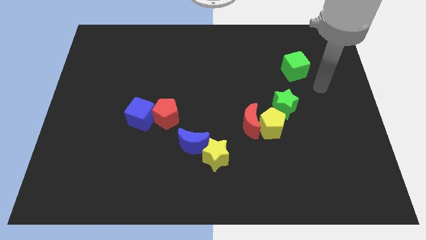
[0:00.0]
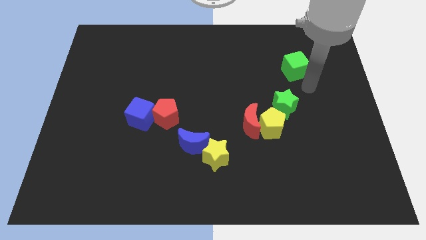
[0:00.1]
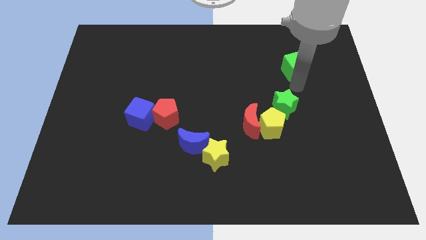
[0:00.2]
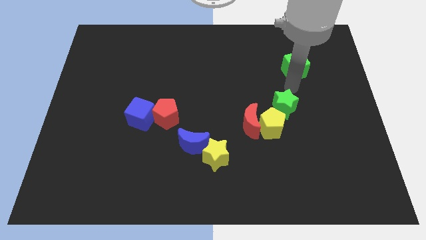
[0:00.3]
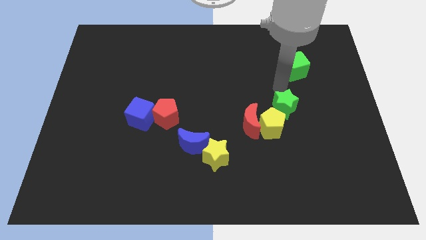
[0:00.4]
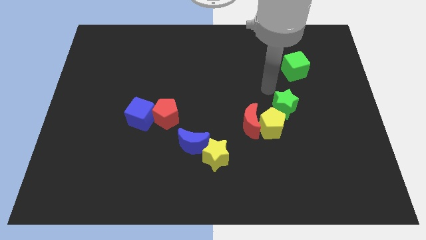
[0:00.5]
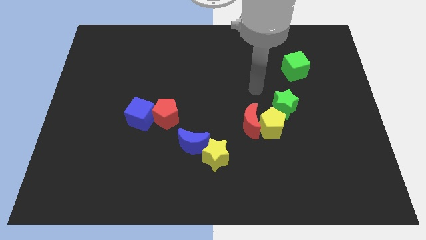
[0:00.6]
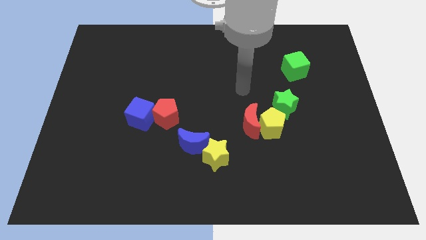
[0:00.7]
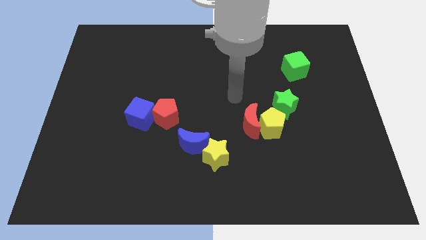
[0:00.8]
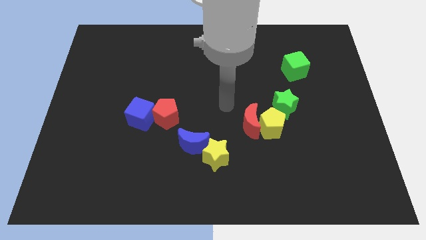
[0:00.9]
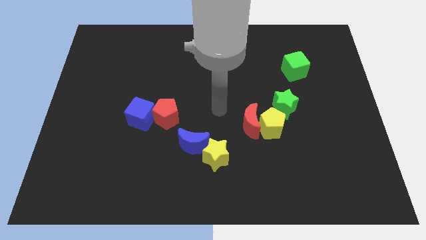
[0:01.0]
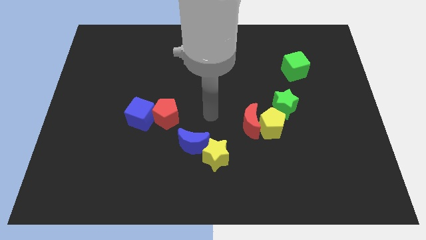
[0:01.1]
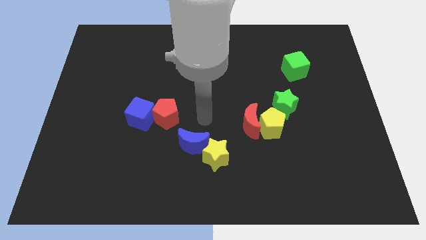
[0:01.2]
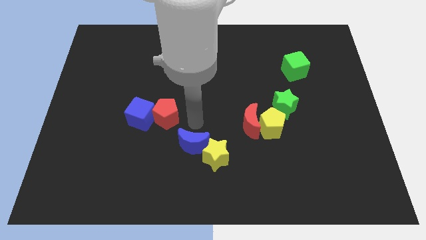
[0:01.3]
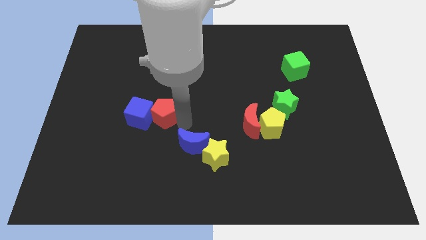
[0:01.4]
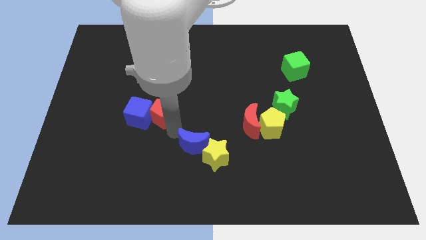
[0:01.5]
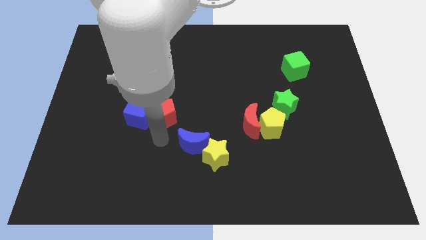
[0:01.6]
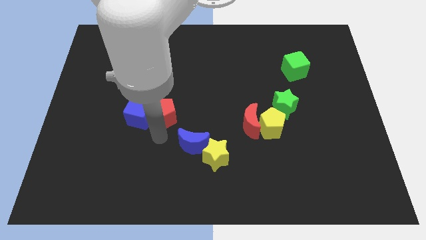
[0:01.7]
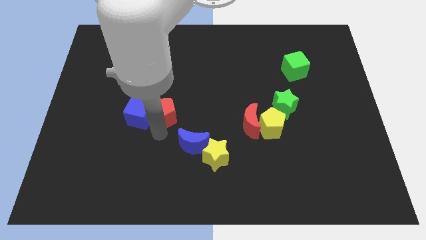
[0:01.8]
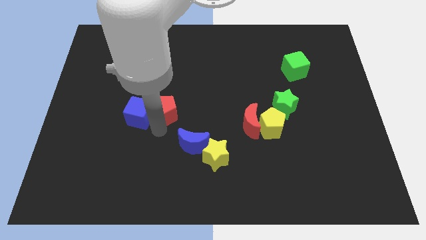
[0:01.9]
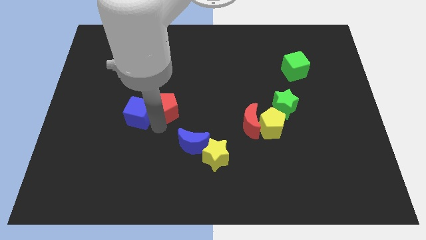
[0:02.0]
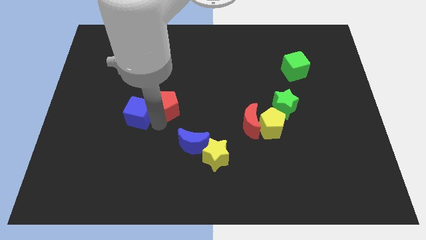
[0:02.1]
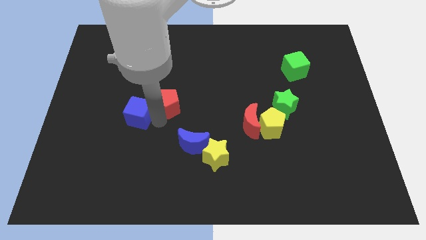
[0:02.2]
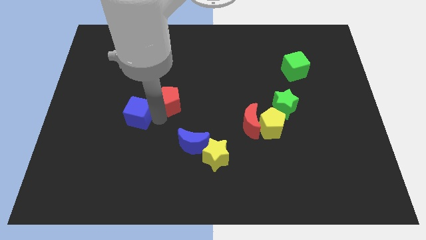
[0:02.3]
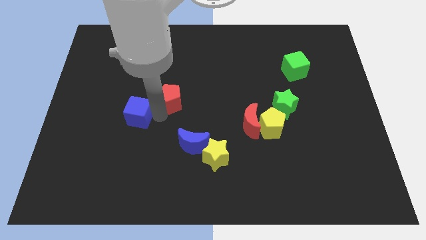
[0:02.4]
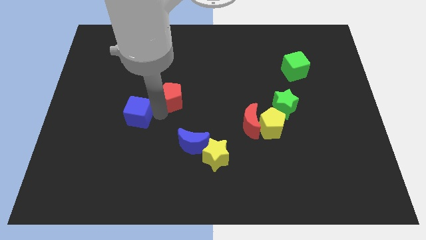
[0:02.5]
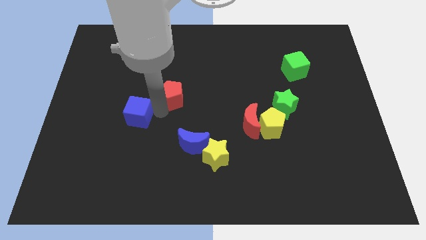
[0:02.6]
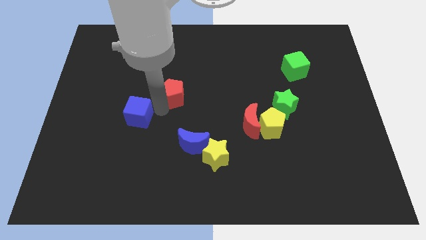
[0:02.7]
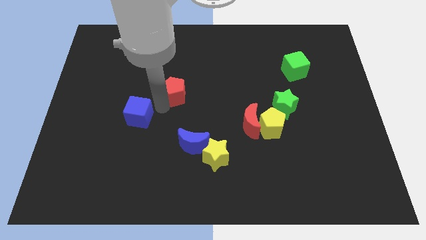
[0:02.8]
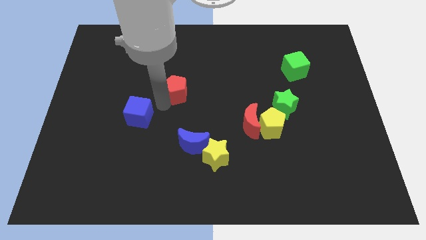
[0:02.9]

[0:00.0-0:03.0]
slightly slide the red pentagon upwards

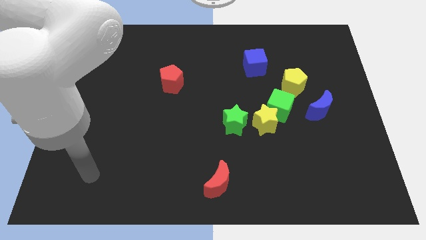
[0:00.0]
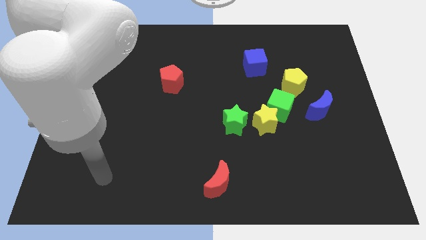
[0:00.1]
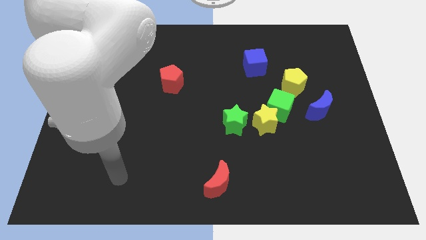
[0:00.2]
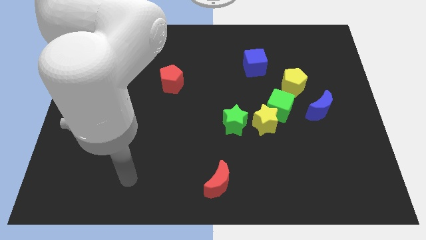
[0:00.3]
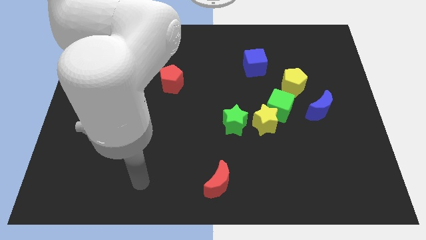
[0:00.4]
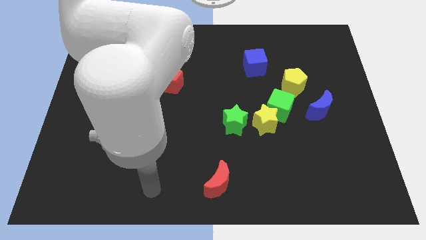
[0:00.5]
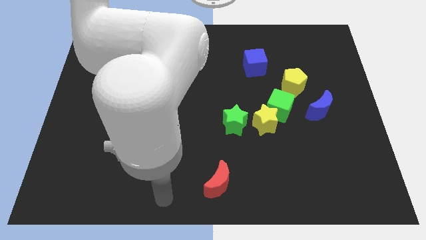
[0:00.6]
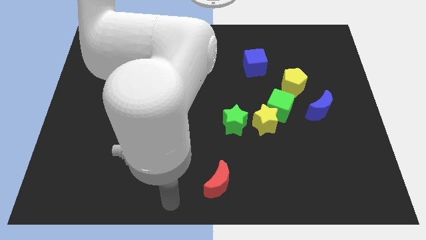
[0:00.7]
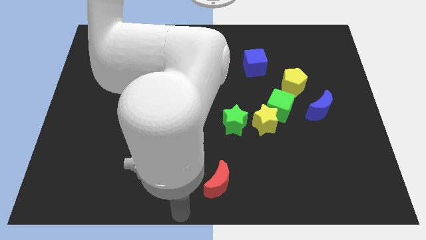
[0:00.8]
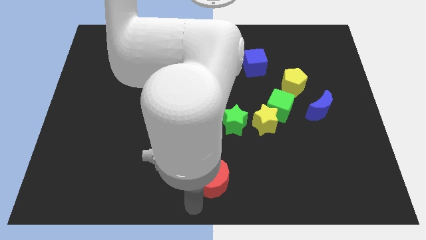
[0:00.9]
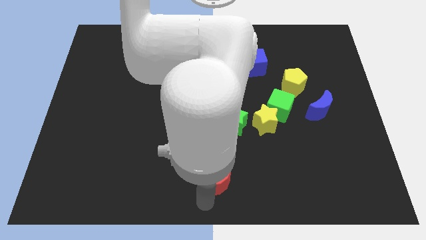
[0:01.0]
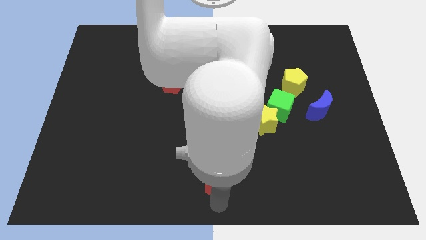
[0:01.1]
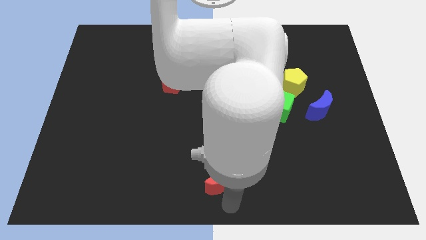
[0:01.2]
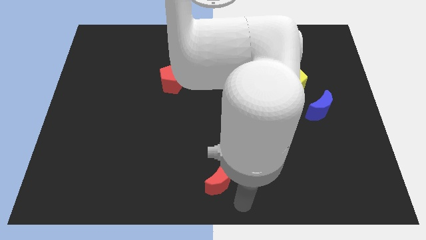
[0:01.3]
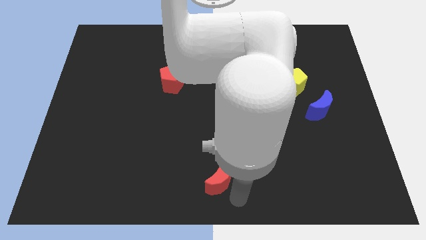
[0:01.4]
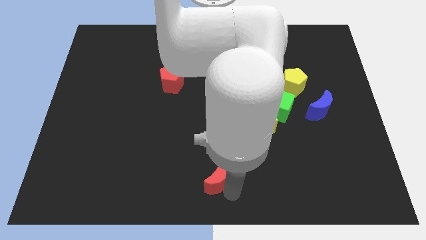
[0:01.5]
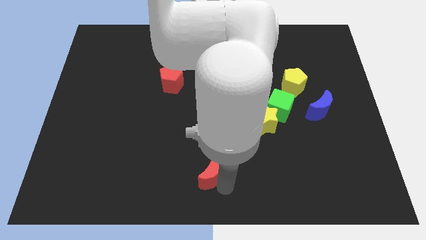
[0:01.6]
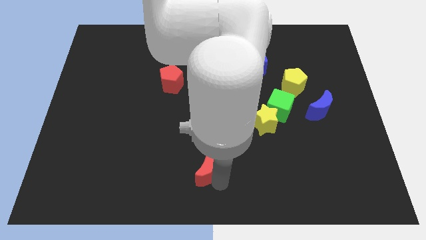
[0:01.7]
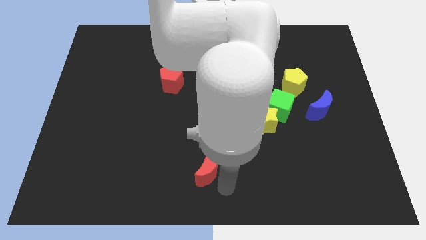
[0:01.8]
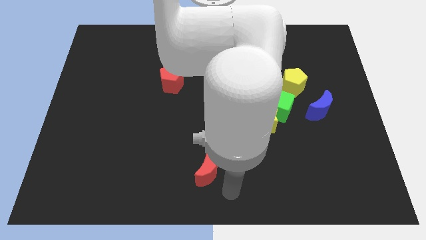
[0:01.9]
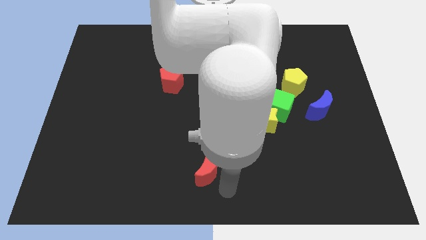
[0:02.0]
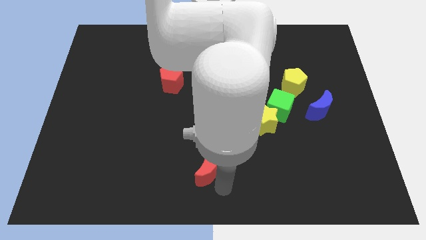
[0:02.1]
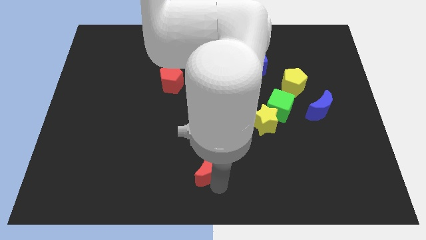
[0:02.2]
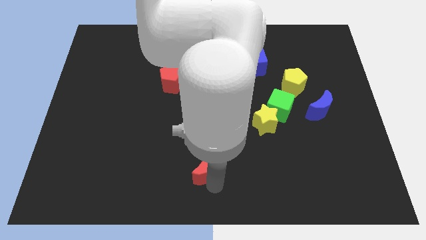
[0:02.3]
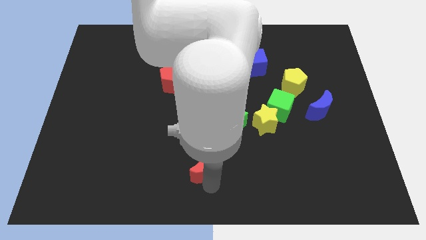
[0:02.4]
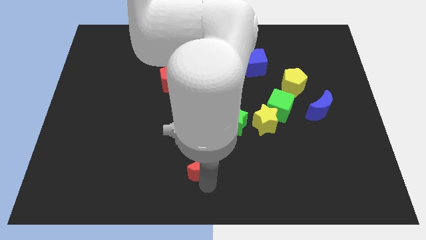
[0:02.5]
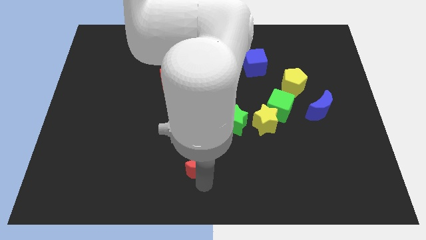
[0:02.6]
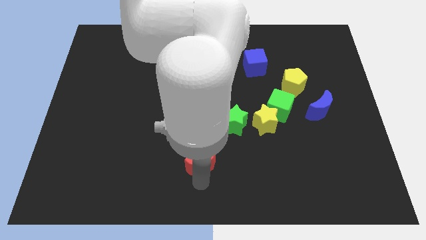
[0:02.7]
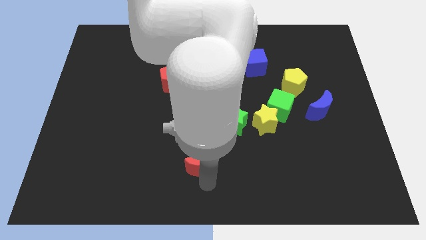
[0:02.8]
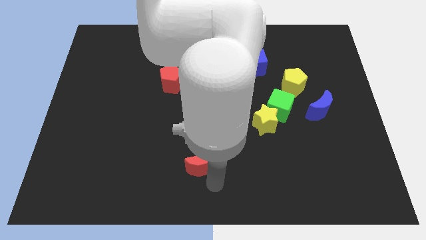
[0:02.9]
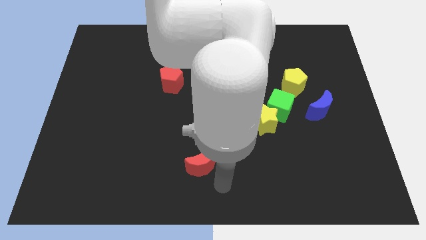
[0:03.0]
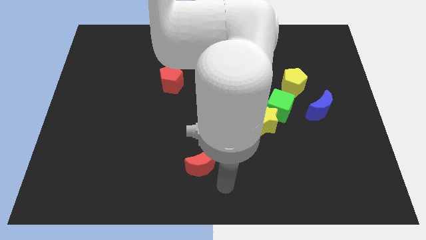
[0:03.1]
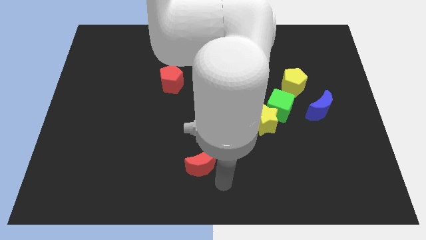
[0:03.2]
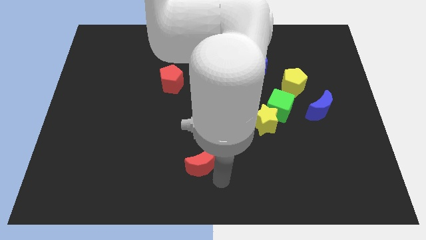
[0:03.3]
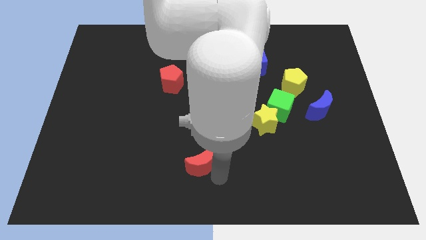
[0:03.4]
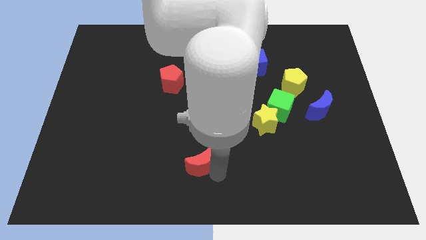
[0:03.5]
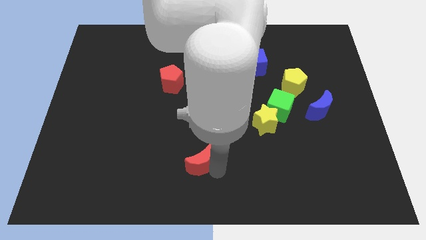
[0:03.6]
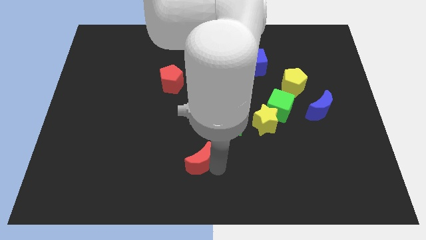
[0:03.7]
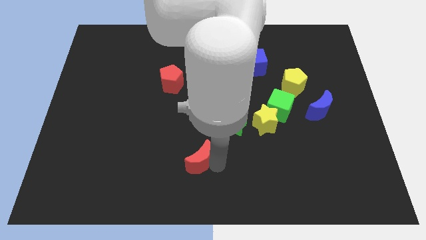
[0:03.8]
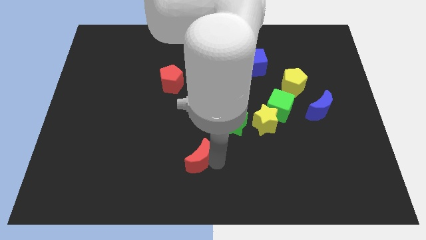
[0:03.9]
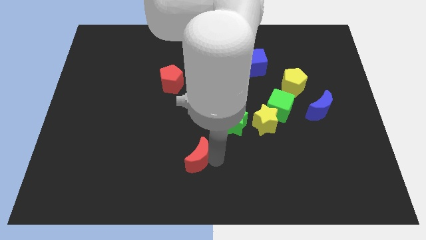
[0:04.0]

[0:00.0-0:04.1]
slide the red moon somewhat upwards and to the left diagonally

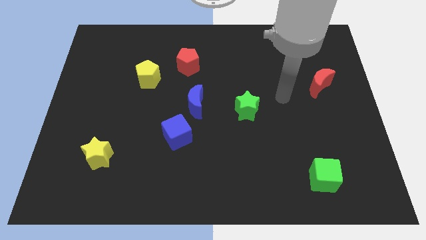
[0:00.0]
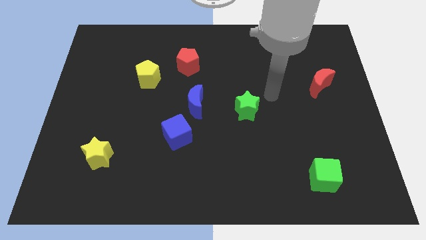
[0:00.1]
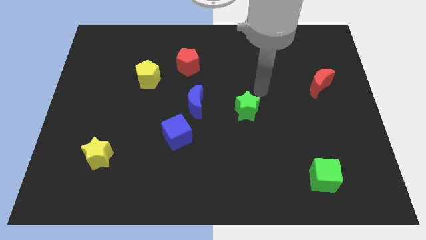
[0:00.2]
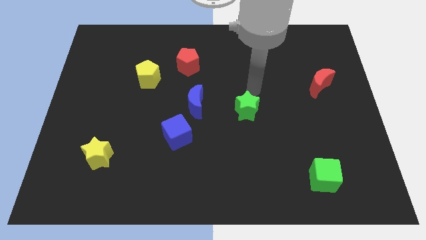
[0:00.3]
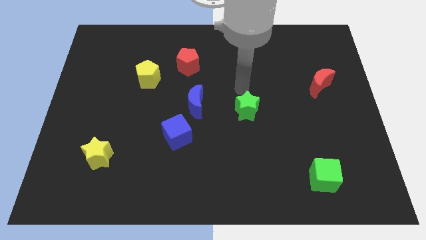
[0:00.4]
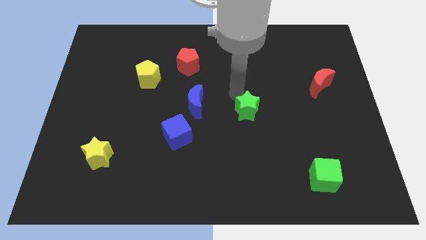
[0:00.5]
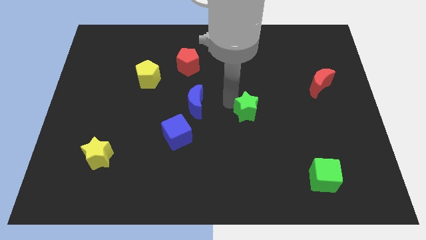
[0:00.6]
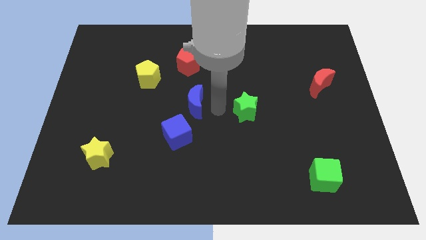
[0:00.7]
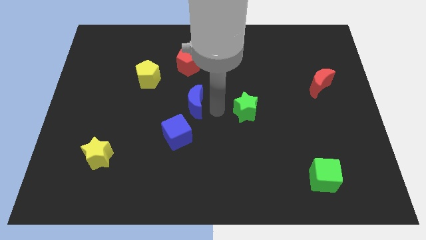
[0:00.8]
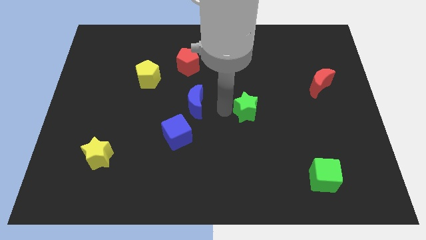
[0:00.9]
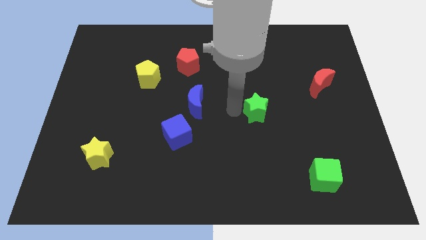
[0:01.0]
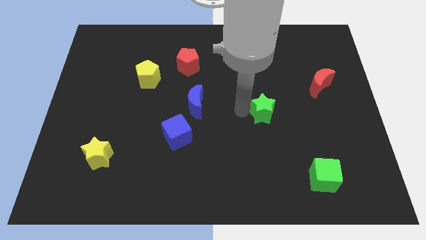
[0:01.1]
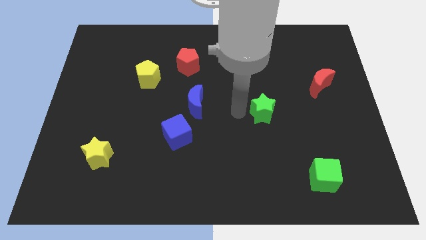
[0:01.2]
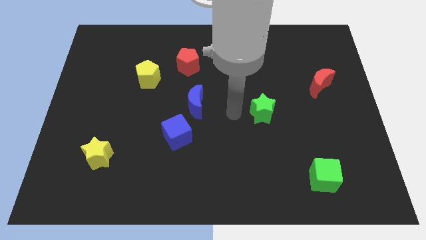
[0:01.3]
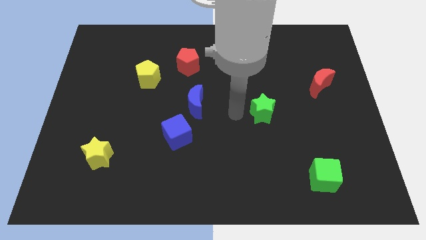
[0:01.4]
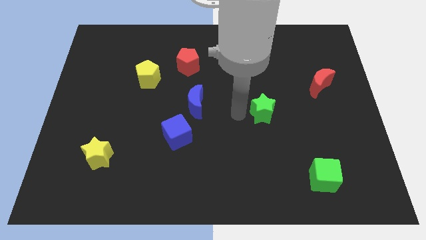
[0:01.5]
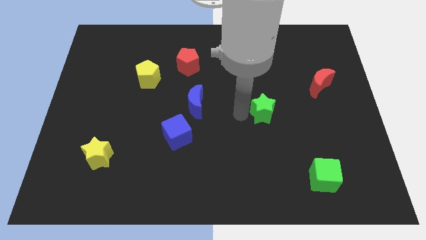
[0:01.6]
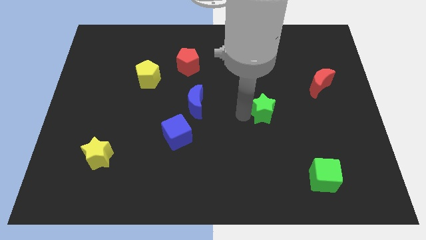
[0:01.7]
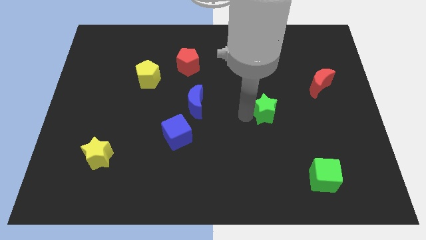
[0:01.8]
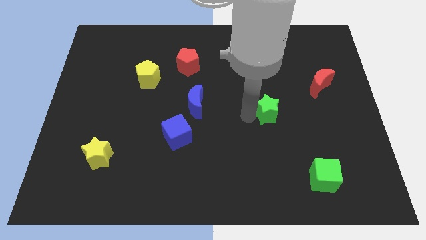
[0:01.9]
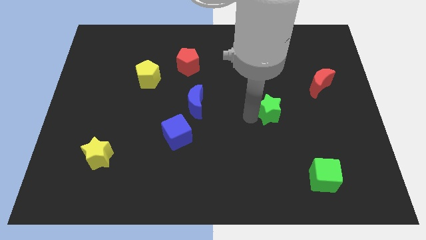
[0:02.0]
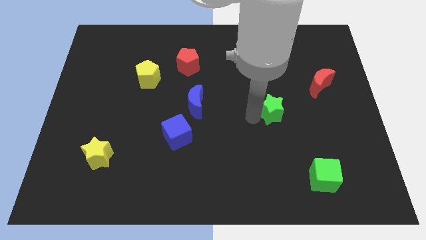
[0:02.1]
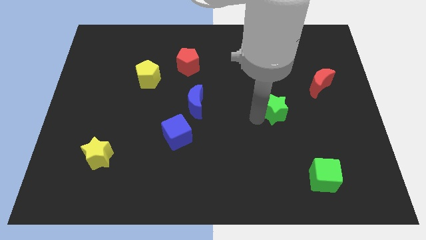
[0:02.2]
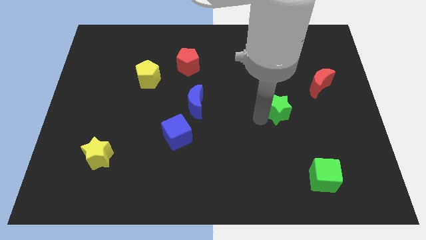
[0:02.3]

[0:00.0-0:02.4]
push the green star right slightly
